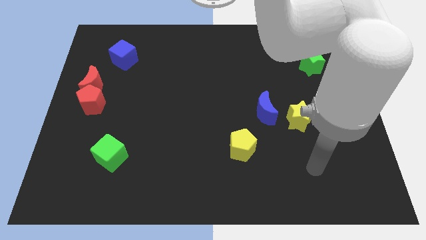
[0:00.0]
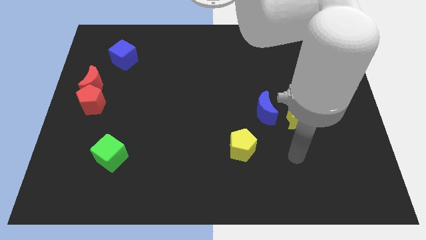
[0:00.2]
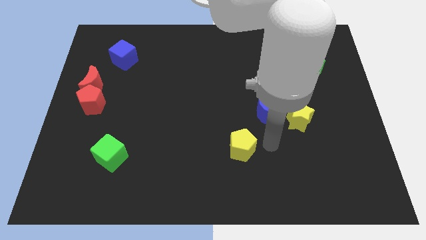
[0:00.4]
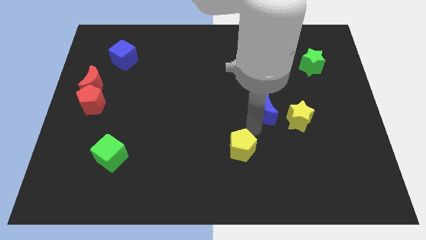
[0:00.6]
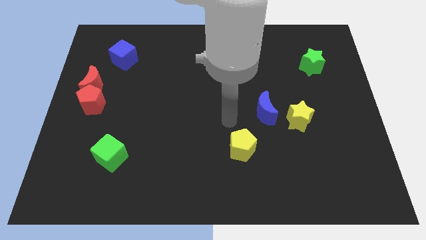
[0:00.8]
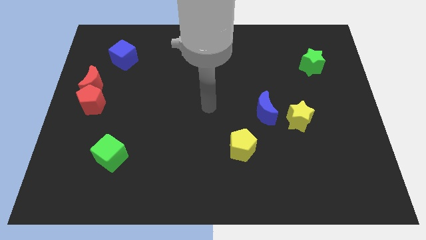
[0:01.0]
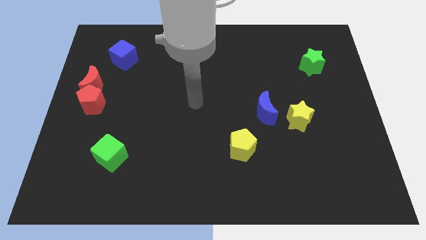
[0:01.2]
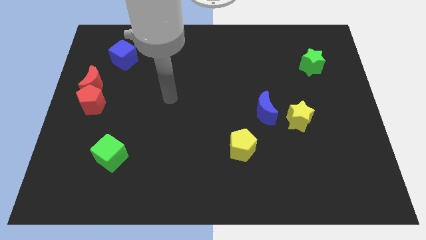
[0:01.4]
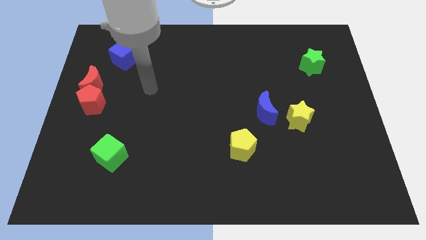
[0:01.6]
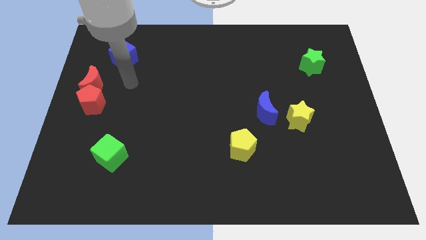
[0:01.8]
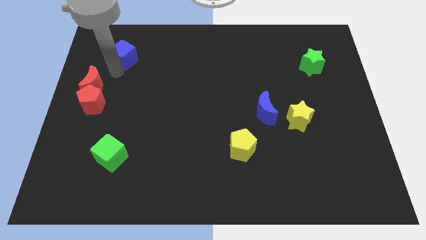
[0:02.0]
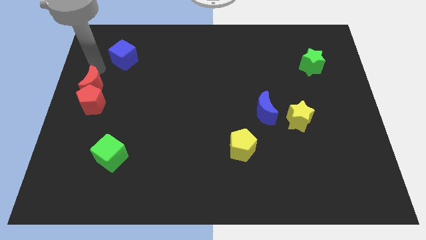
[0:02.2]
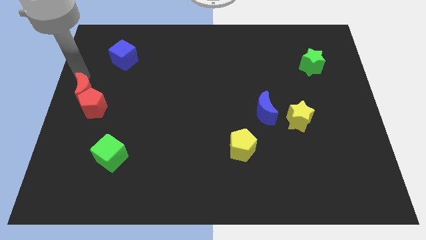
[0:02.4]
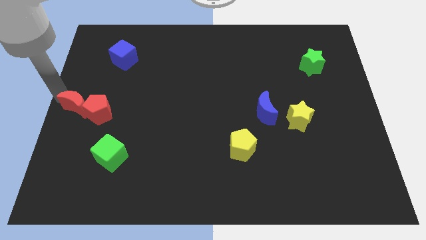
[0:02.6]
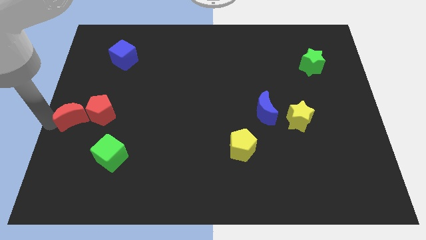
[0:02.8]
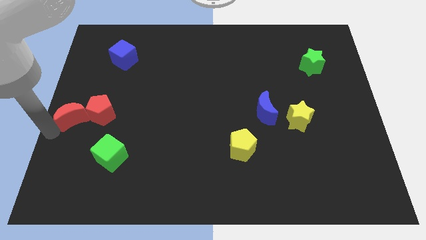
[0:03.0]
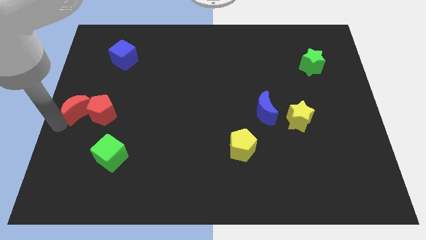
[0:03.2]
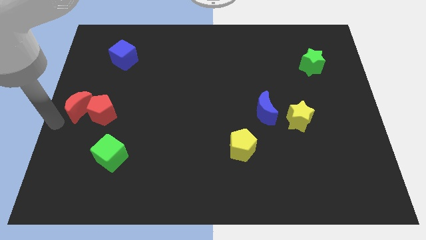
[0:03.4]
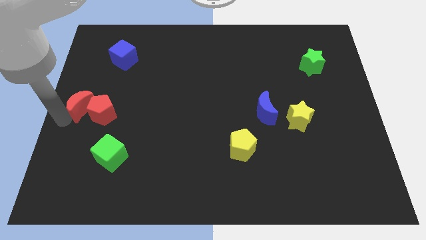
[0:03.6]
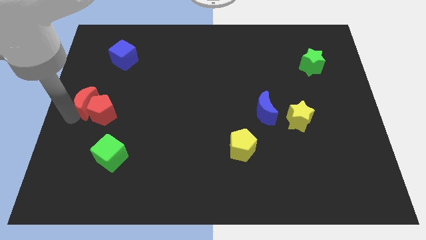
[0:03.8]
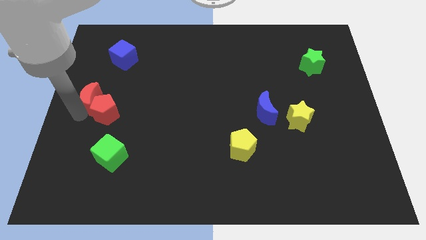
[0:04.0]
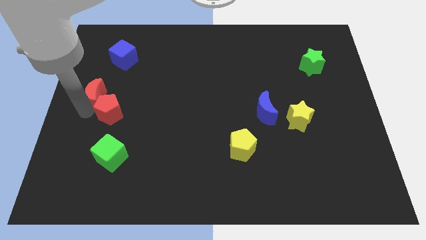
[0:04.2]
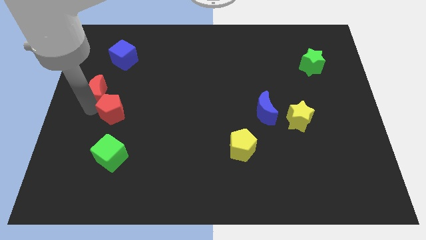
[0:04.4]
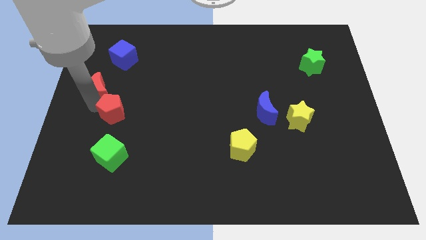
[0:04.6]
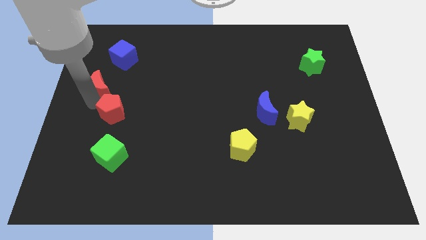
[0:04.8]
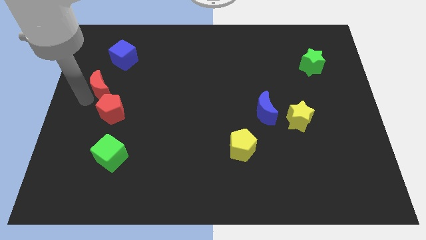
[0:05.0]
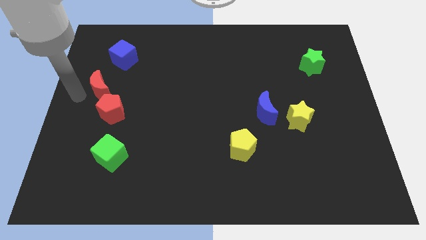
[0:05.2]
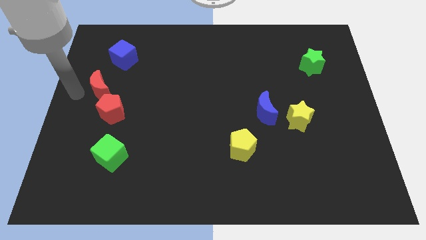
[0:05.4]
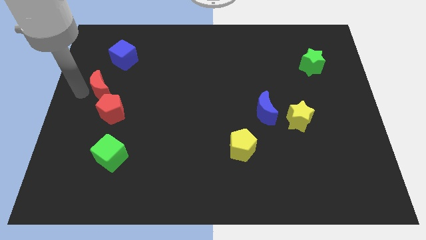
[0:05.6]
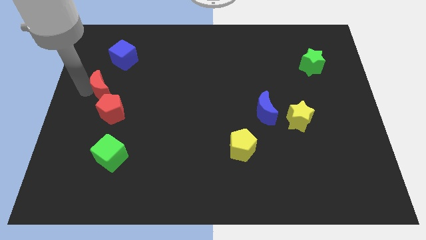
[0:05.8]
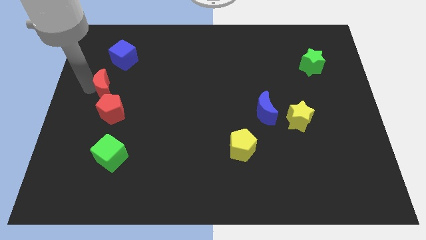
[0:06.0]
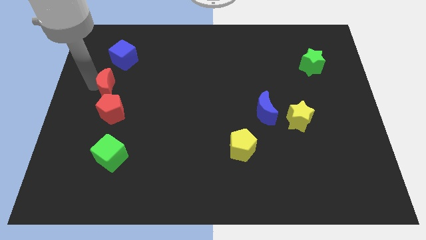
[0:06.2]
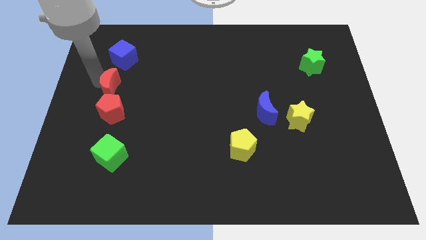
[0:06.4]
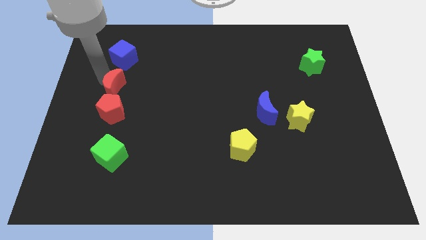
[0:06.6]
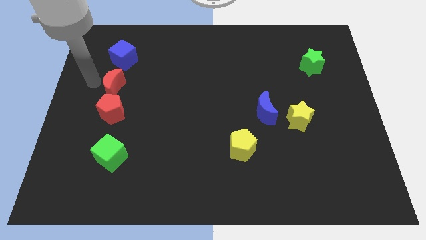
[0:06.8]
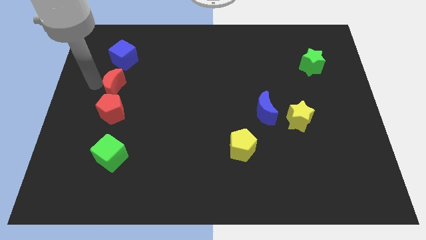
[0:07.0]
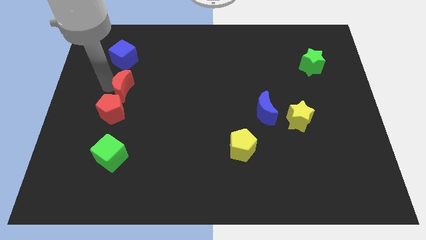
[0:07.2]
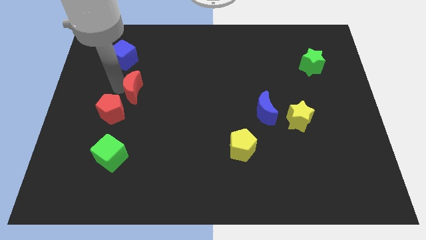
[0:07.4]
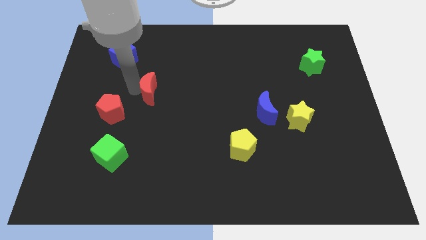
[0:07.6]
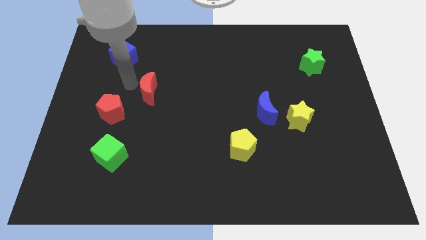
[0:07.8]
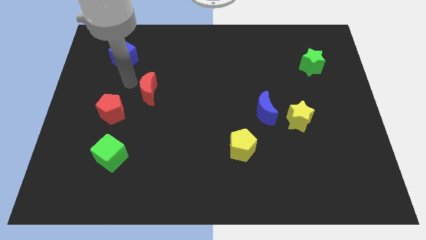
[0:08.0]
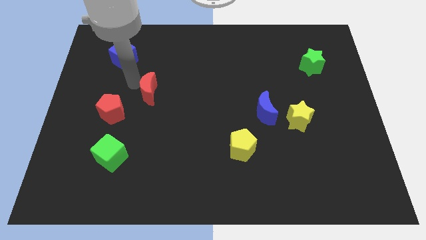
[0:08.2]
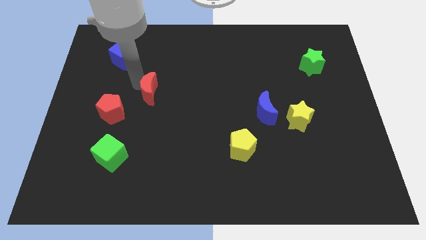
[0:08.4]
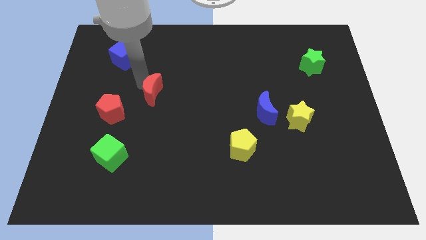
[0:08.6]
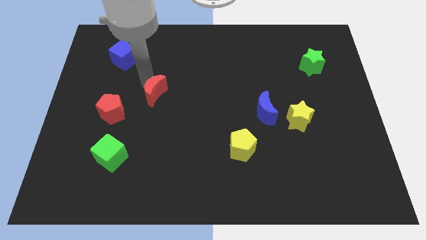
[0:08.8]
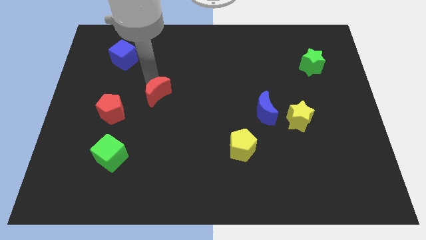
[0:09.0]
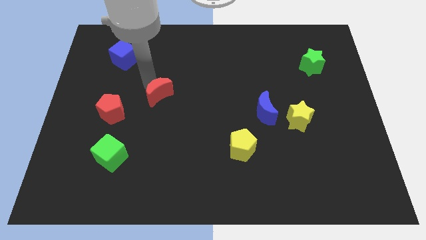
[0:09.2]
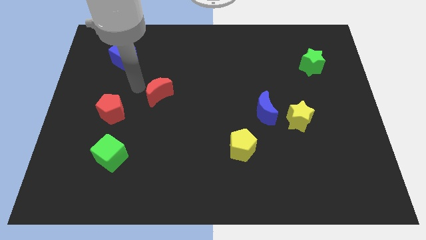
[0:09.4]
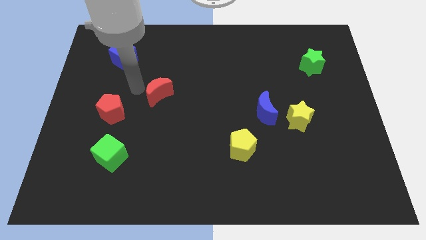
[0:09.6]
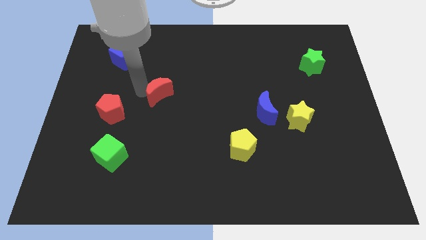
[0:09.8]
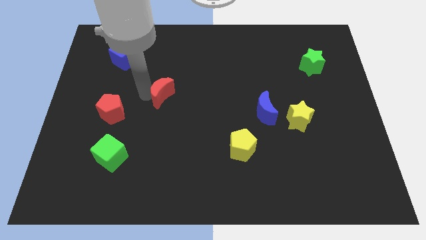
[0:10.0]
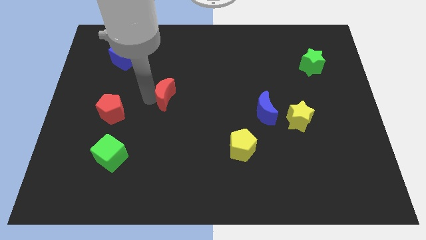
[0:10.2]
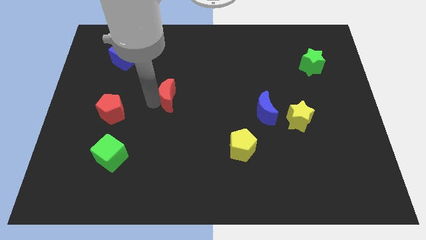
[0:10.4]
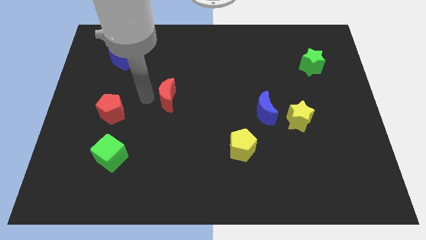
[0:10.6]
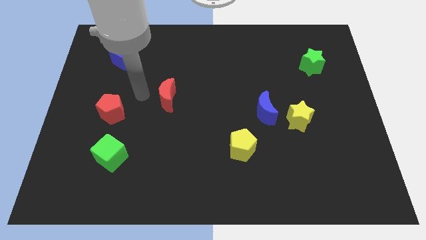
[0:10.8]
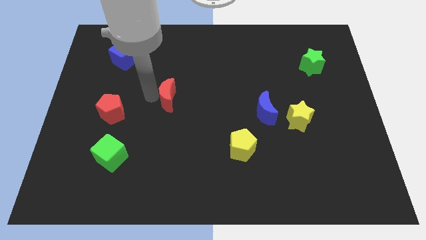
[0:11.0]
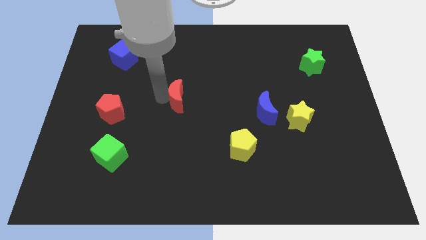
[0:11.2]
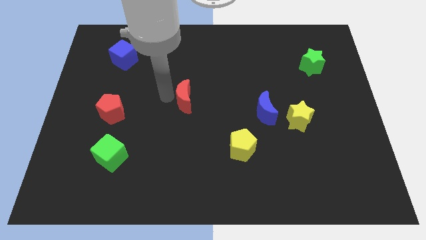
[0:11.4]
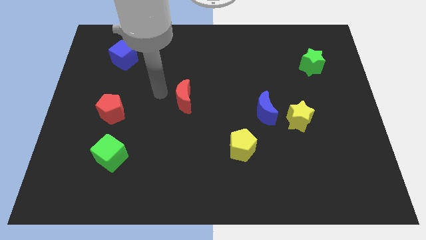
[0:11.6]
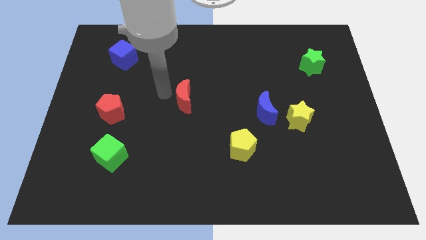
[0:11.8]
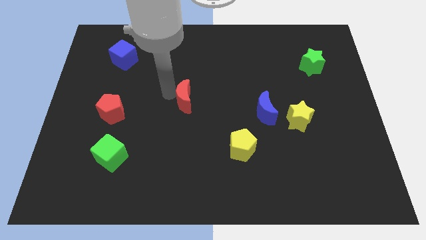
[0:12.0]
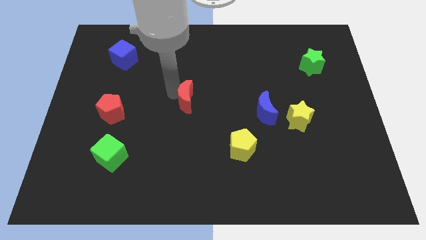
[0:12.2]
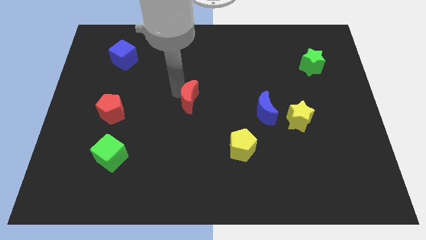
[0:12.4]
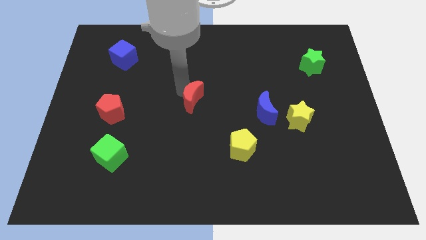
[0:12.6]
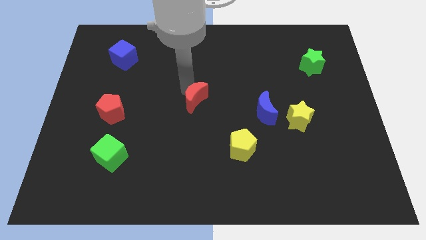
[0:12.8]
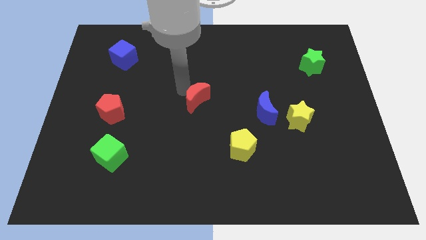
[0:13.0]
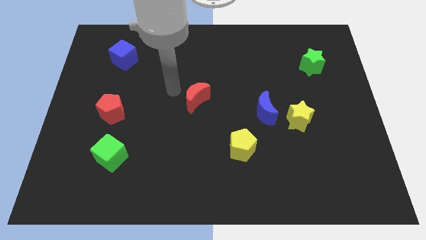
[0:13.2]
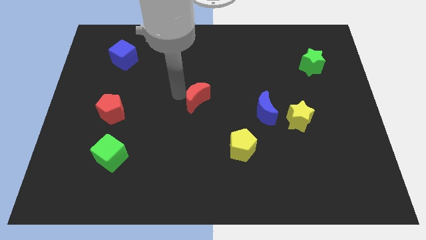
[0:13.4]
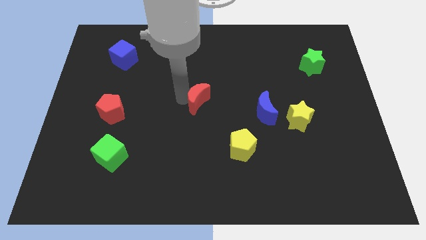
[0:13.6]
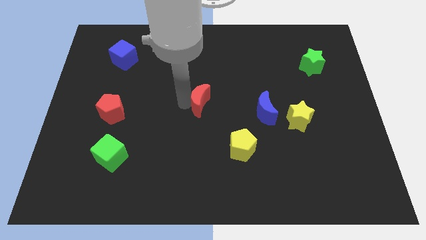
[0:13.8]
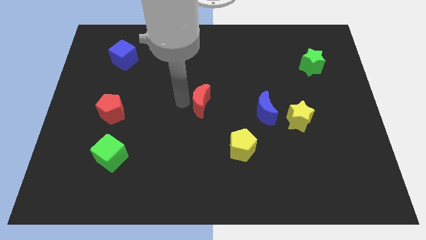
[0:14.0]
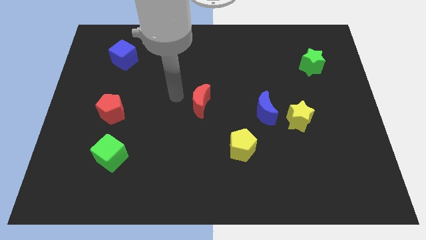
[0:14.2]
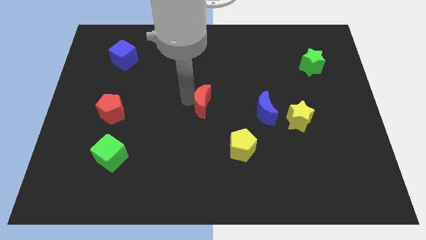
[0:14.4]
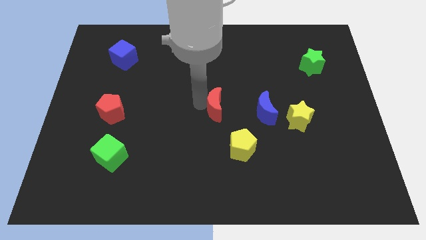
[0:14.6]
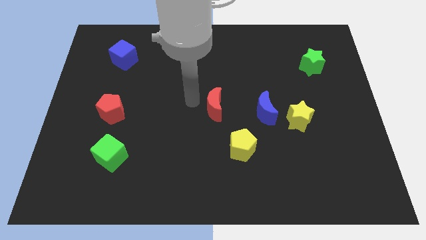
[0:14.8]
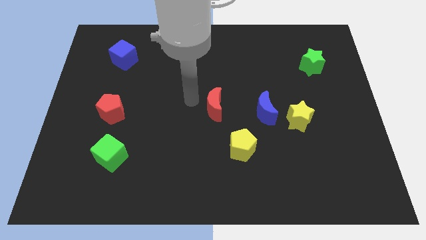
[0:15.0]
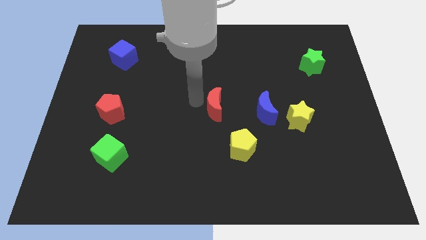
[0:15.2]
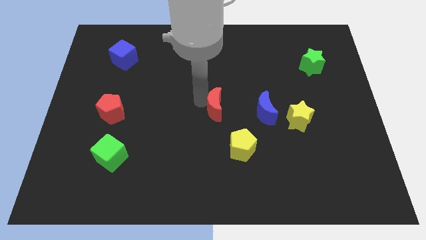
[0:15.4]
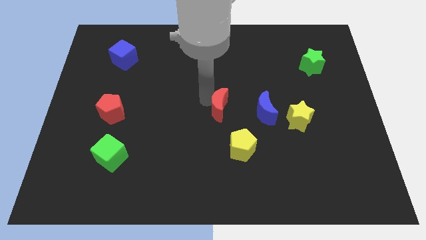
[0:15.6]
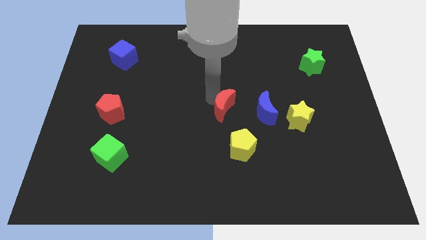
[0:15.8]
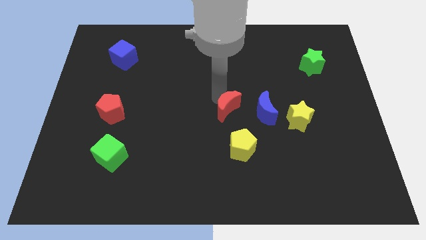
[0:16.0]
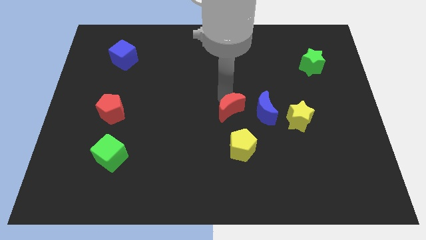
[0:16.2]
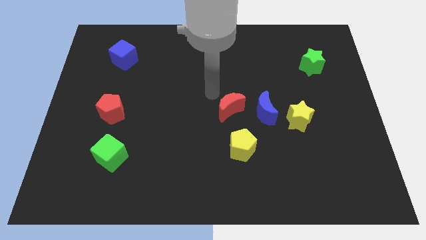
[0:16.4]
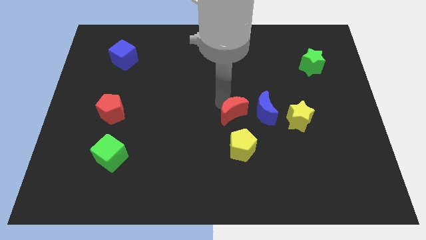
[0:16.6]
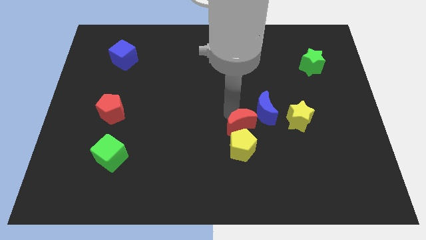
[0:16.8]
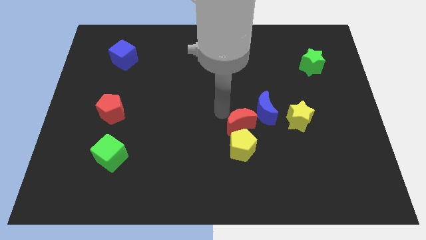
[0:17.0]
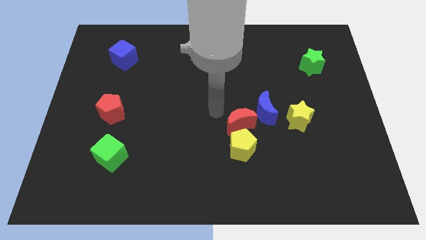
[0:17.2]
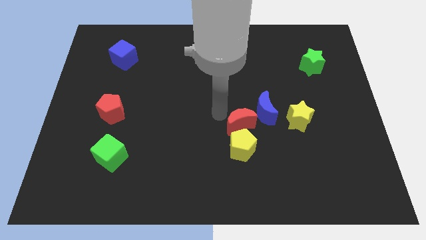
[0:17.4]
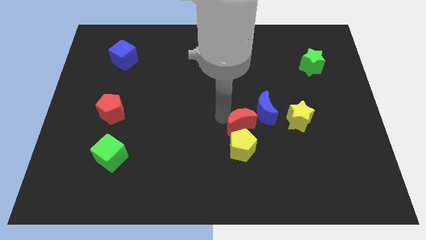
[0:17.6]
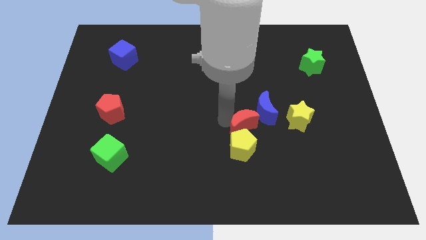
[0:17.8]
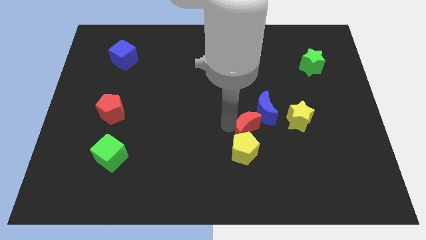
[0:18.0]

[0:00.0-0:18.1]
slide the red moon below the blue moon
